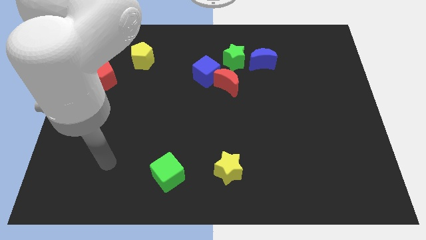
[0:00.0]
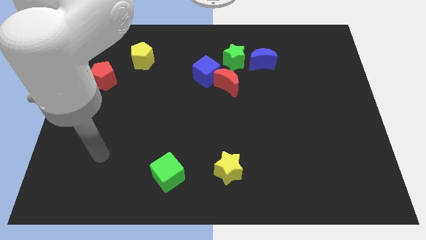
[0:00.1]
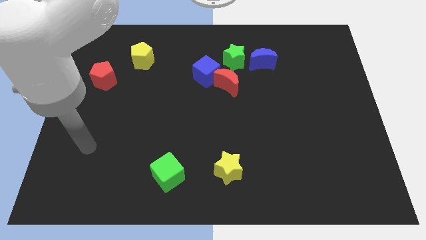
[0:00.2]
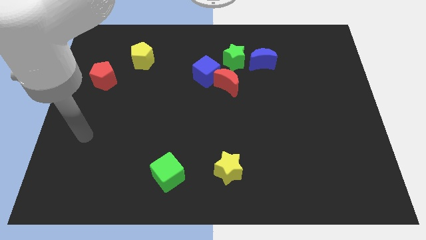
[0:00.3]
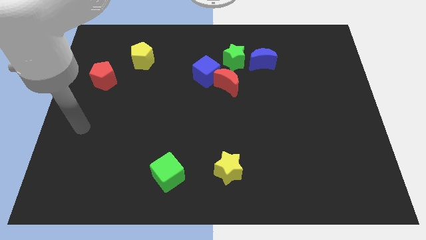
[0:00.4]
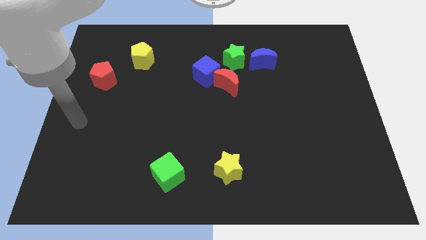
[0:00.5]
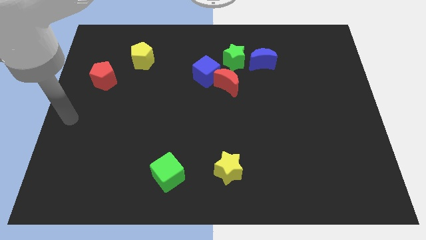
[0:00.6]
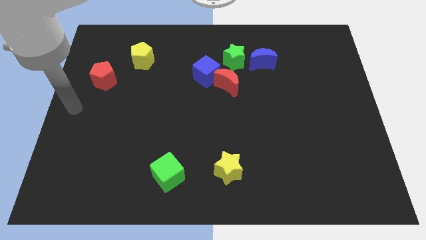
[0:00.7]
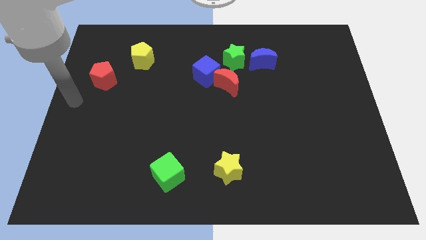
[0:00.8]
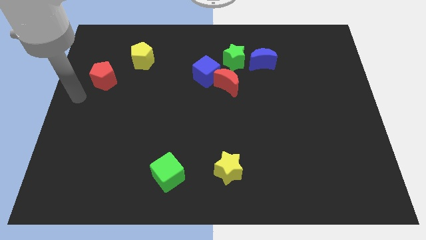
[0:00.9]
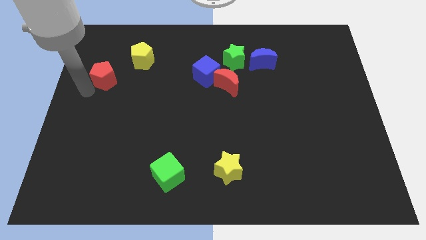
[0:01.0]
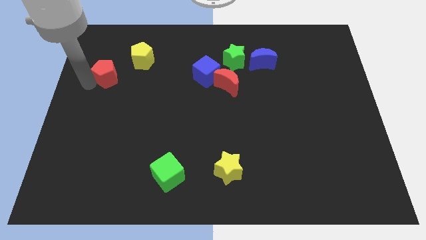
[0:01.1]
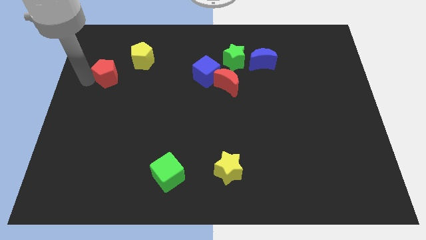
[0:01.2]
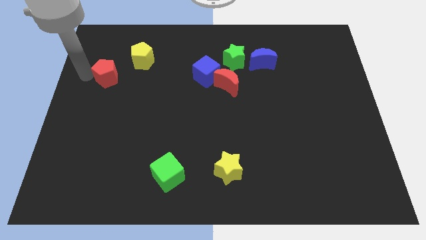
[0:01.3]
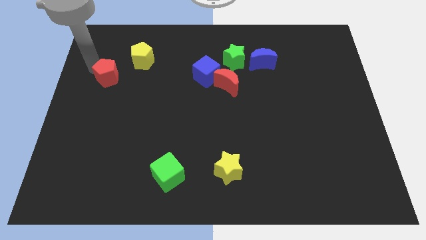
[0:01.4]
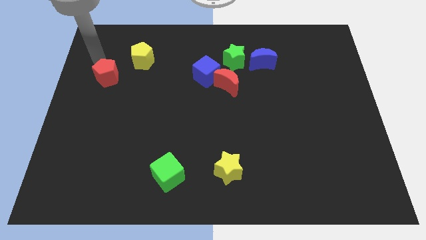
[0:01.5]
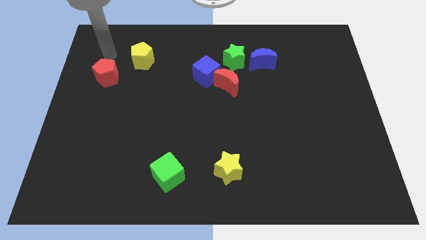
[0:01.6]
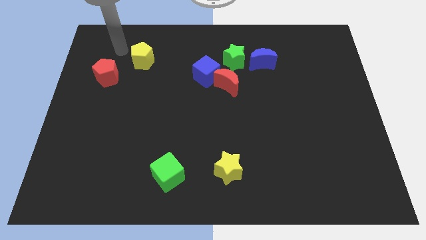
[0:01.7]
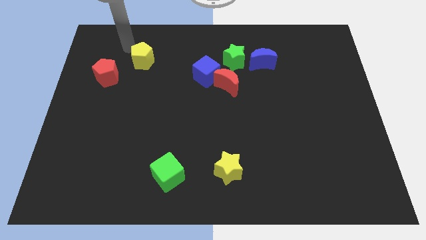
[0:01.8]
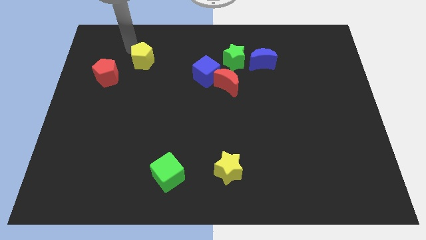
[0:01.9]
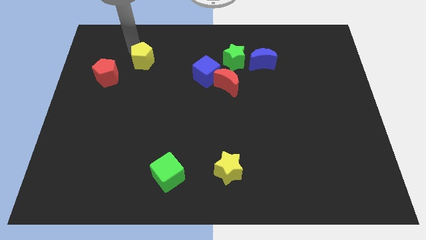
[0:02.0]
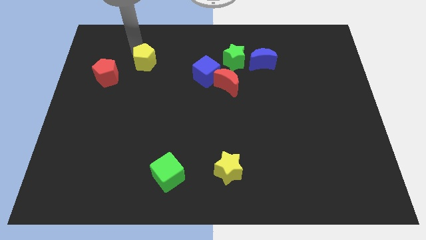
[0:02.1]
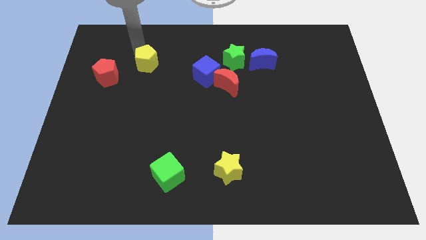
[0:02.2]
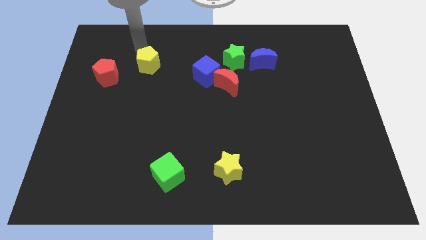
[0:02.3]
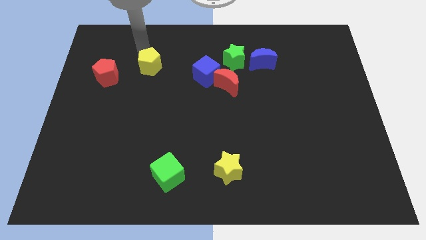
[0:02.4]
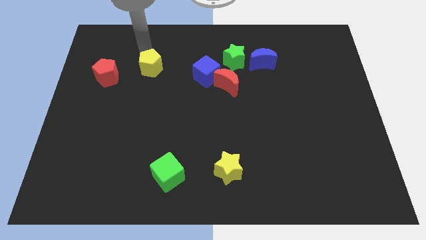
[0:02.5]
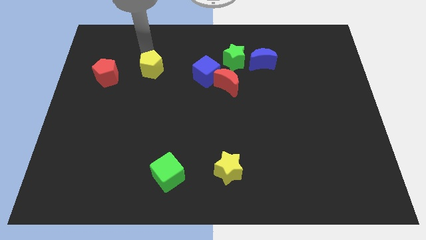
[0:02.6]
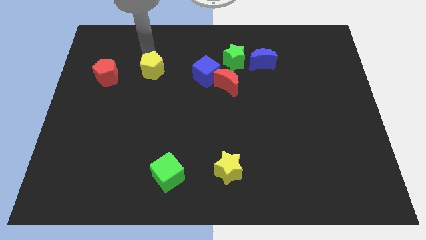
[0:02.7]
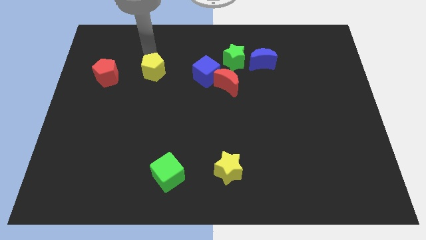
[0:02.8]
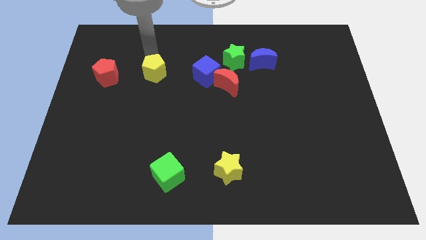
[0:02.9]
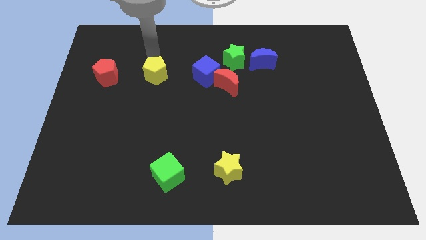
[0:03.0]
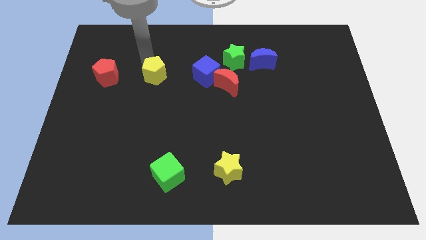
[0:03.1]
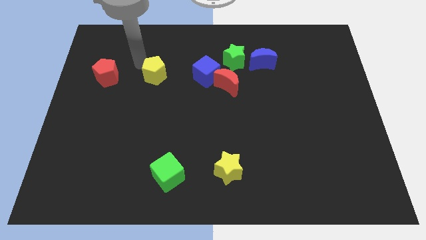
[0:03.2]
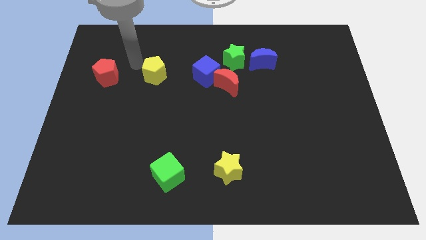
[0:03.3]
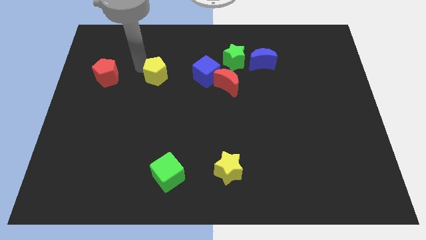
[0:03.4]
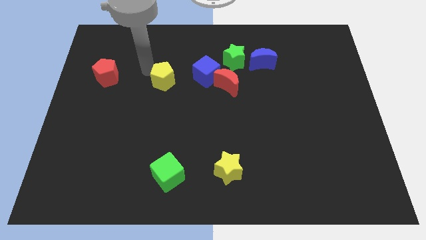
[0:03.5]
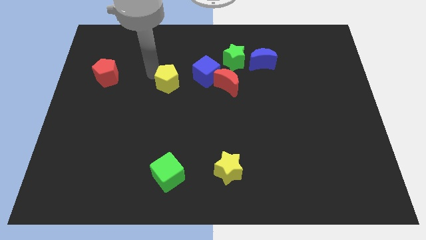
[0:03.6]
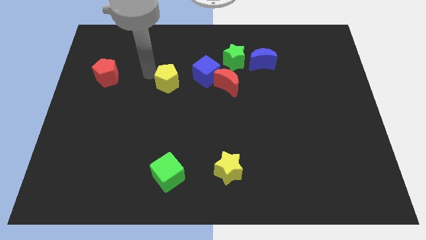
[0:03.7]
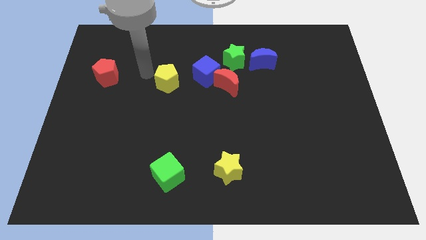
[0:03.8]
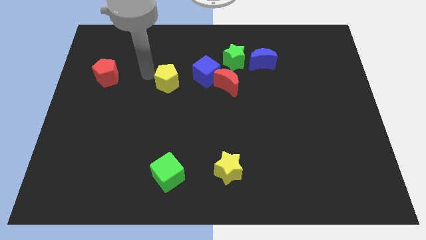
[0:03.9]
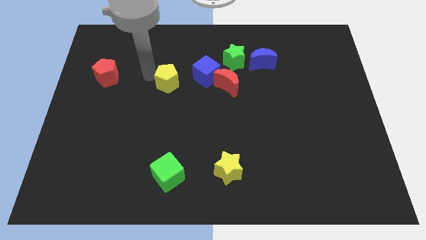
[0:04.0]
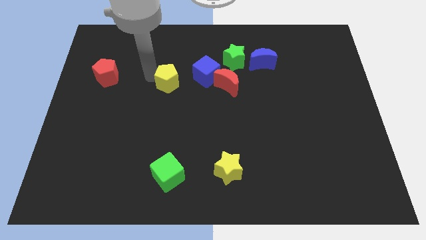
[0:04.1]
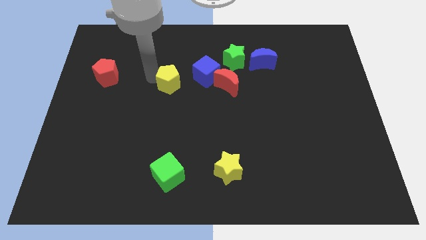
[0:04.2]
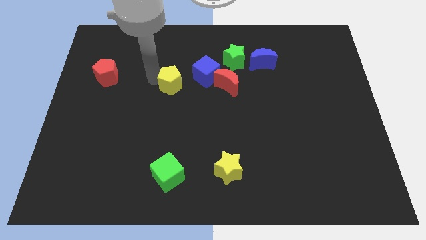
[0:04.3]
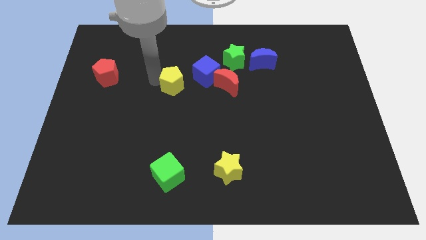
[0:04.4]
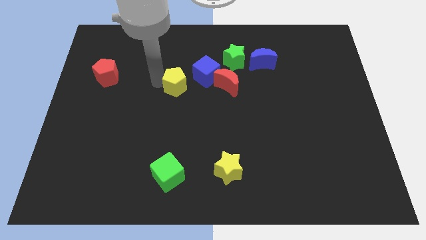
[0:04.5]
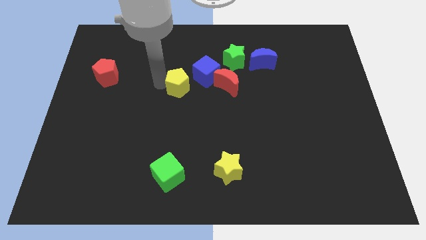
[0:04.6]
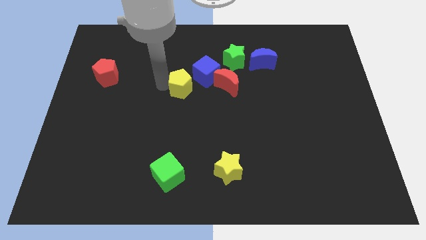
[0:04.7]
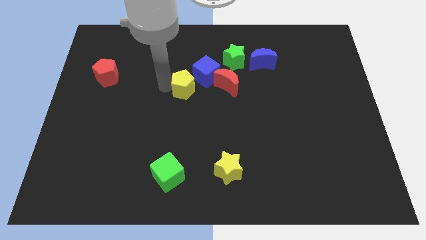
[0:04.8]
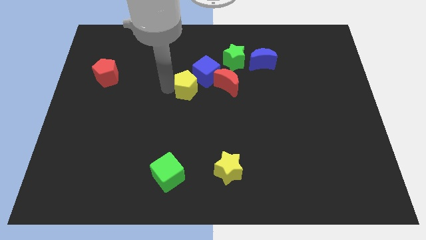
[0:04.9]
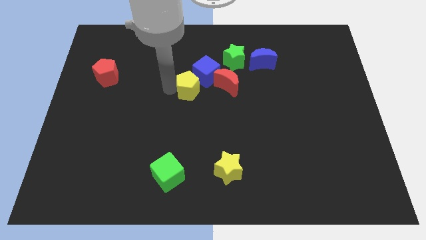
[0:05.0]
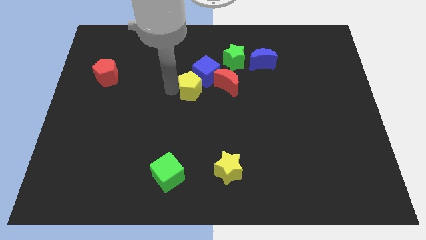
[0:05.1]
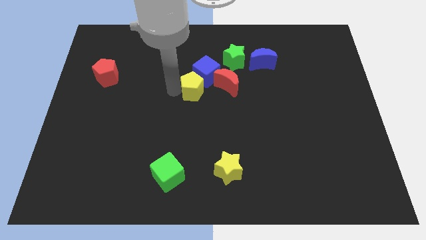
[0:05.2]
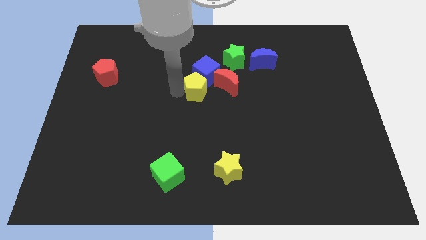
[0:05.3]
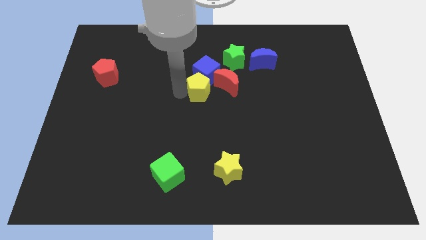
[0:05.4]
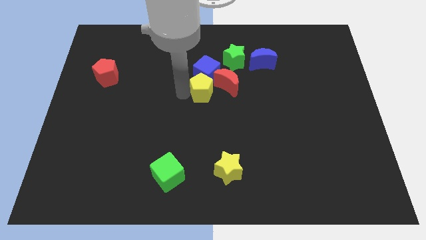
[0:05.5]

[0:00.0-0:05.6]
slide the yellow pentagon to the bottom right of the blue cube

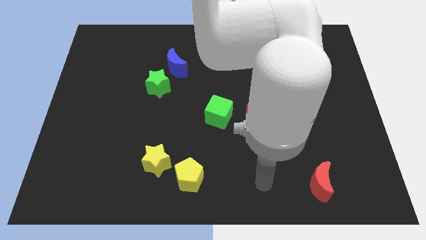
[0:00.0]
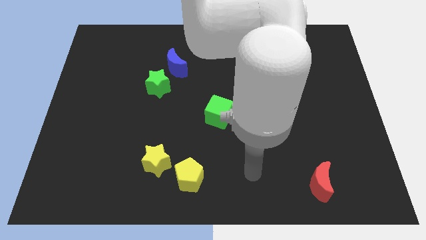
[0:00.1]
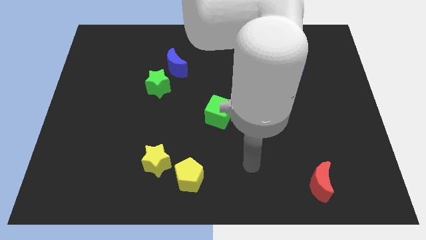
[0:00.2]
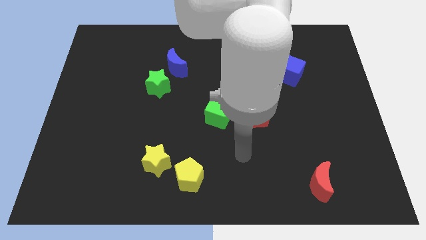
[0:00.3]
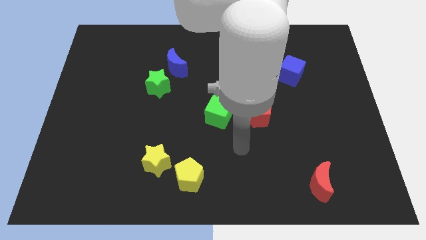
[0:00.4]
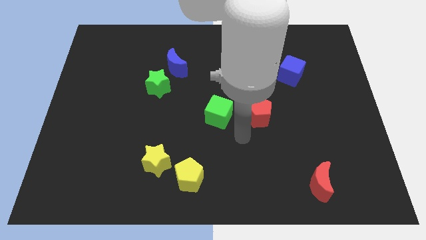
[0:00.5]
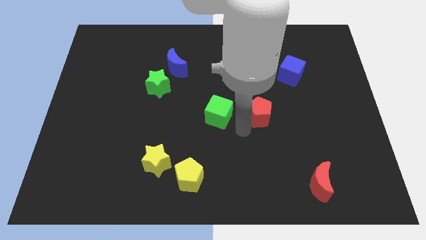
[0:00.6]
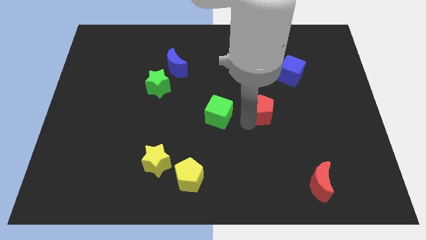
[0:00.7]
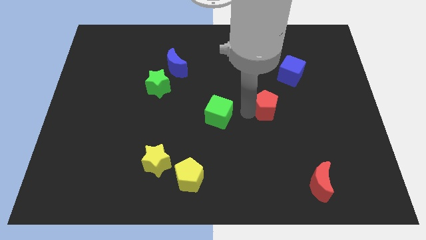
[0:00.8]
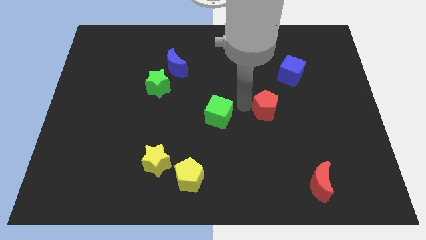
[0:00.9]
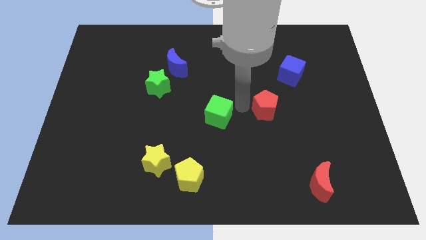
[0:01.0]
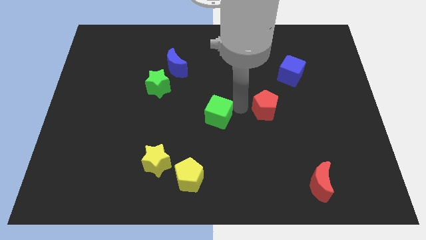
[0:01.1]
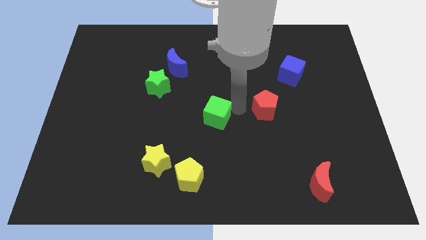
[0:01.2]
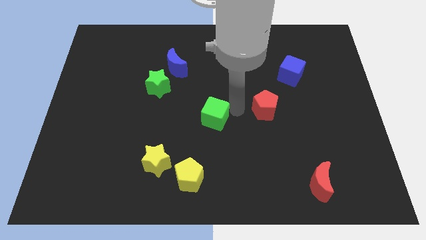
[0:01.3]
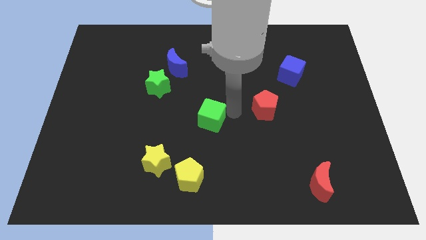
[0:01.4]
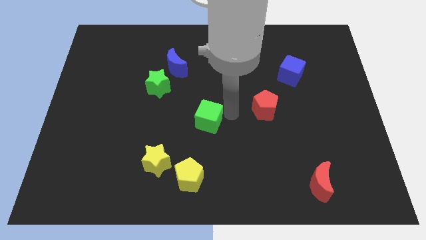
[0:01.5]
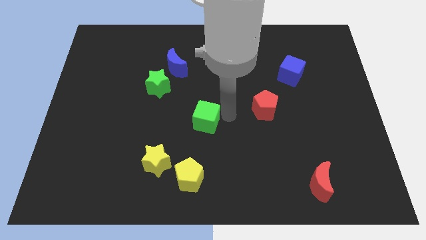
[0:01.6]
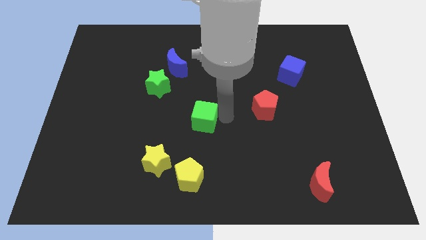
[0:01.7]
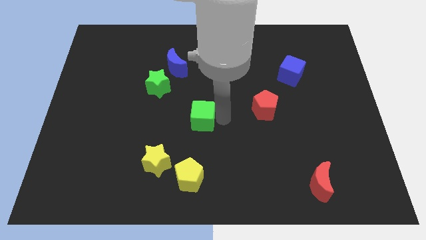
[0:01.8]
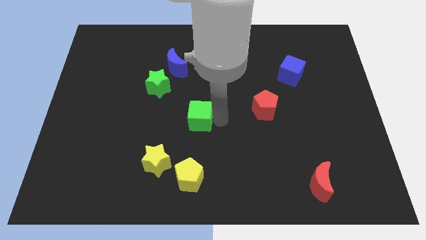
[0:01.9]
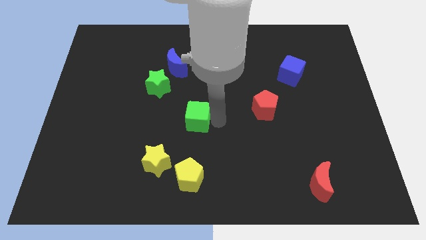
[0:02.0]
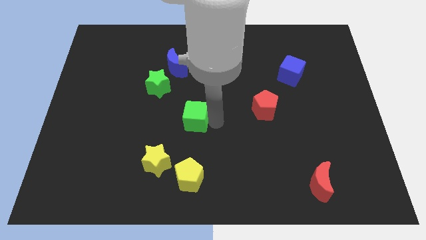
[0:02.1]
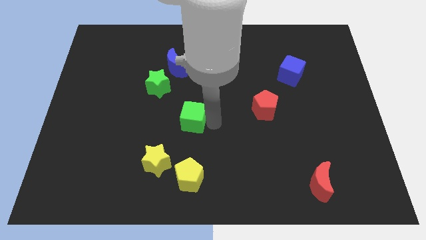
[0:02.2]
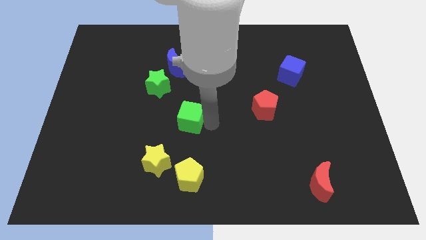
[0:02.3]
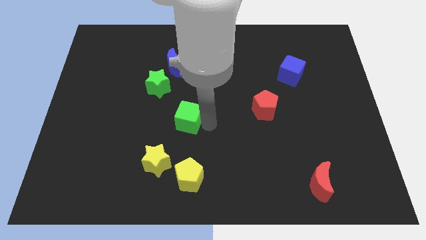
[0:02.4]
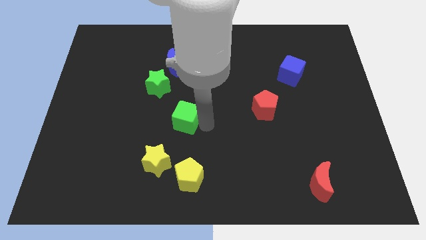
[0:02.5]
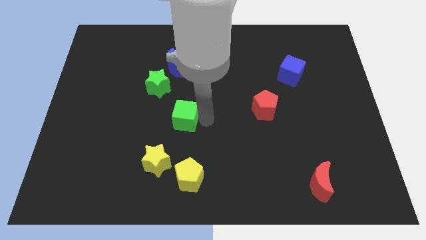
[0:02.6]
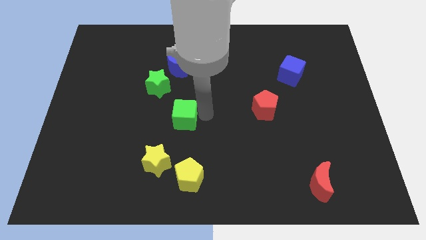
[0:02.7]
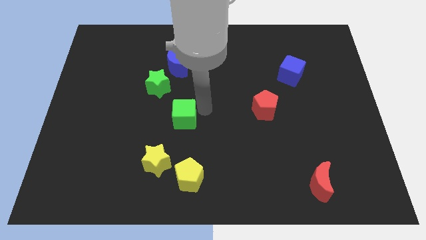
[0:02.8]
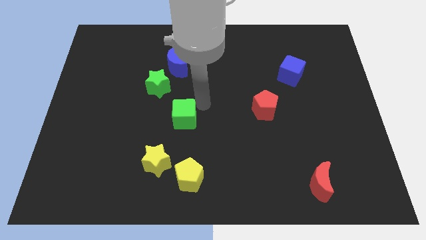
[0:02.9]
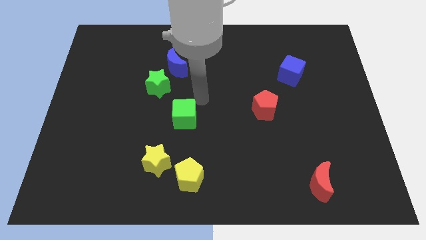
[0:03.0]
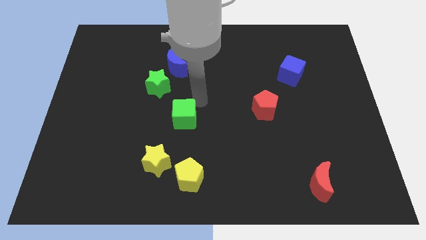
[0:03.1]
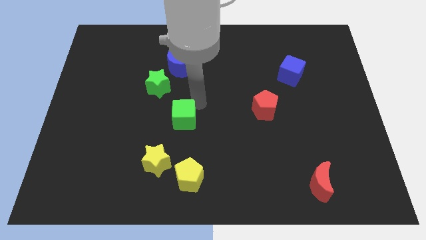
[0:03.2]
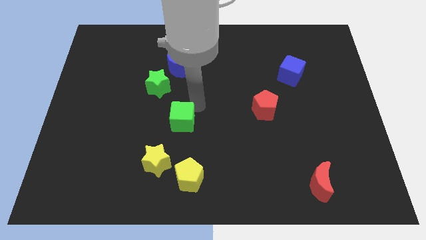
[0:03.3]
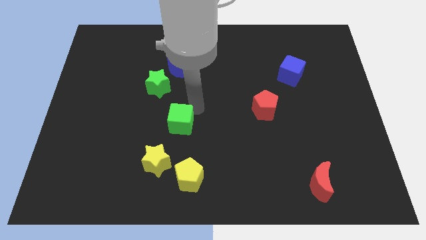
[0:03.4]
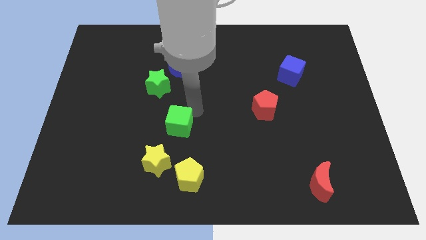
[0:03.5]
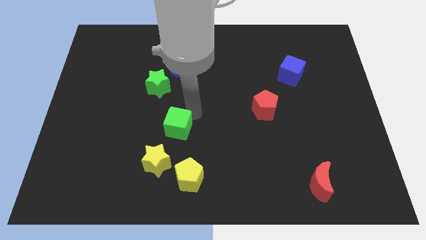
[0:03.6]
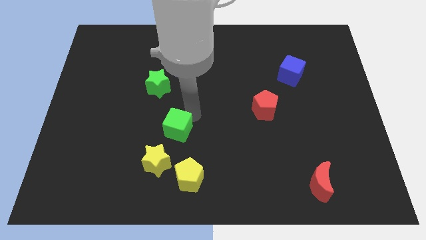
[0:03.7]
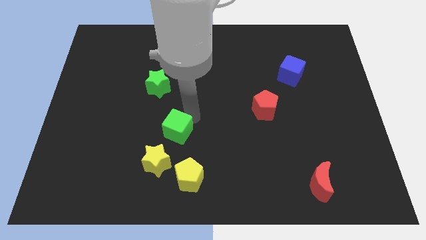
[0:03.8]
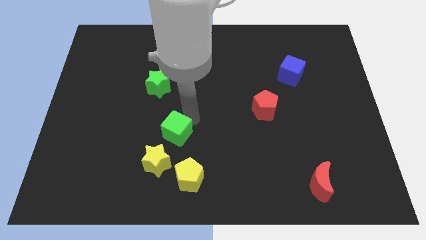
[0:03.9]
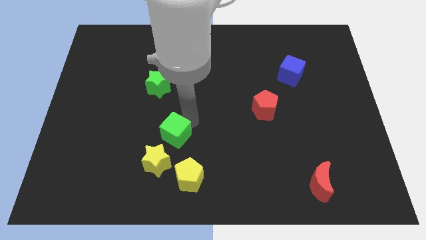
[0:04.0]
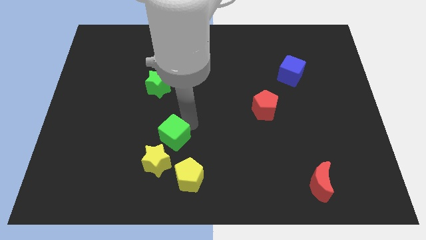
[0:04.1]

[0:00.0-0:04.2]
put the green cube to the top left of the yellow pentagon
